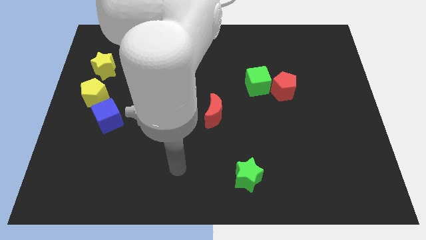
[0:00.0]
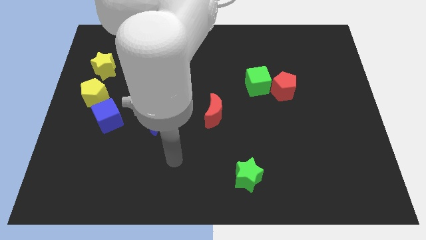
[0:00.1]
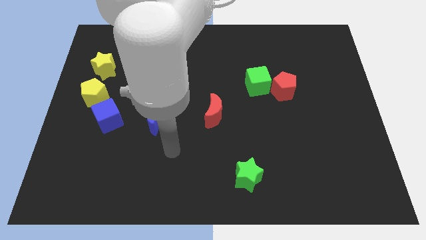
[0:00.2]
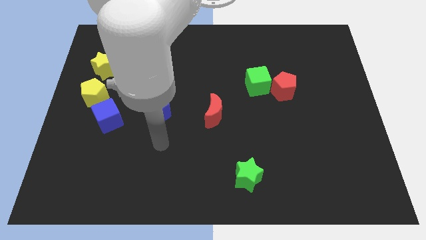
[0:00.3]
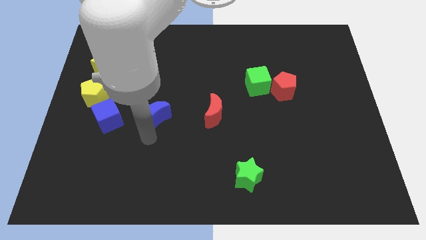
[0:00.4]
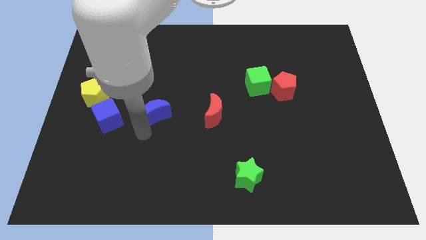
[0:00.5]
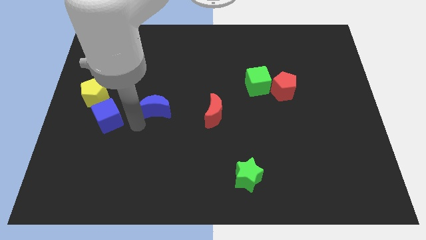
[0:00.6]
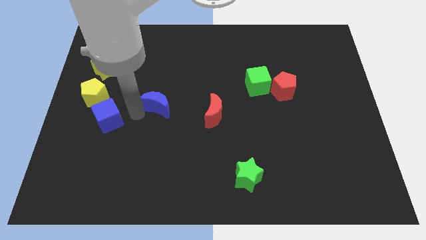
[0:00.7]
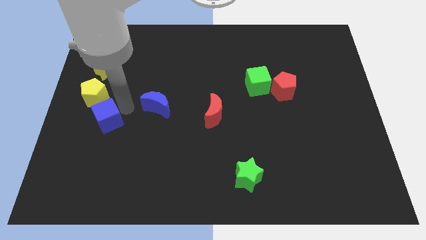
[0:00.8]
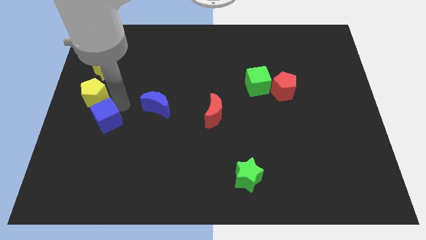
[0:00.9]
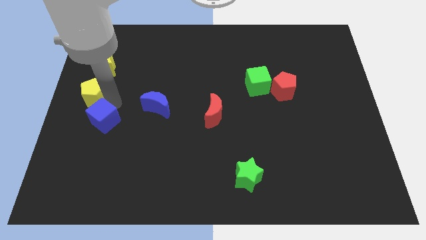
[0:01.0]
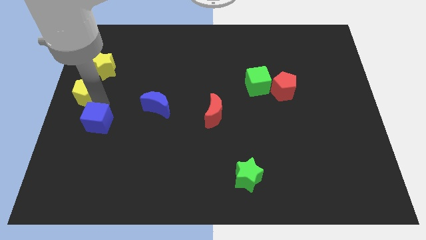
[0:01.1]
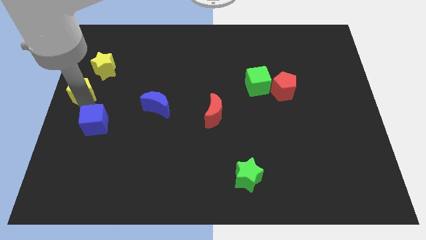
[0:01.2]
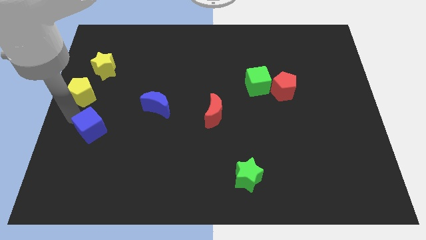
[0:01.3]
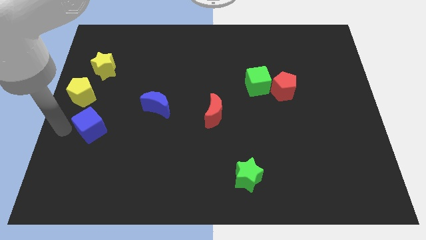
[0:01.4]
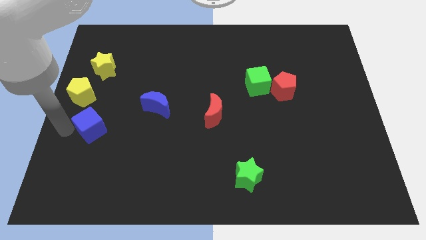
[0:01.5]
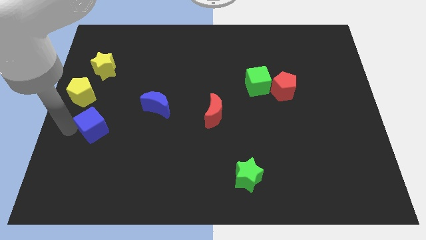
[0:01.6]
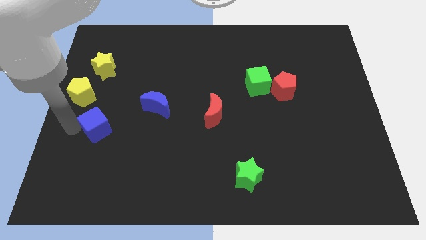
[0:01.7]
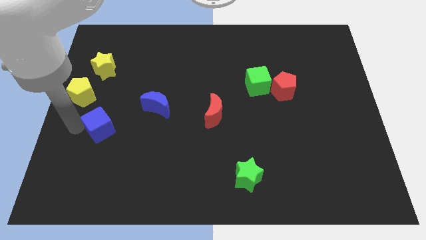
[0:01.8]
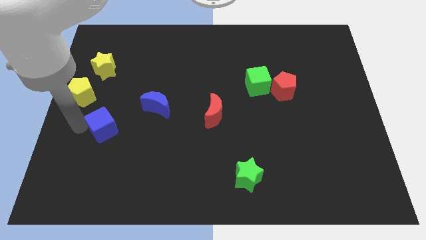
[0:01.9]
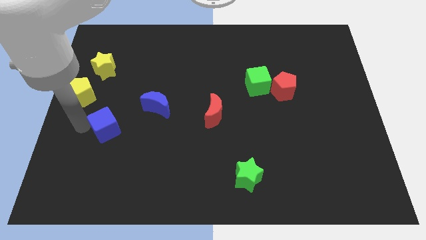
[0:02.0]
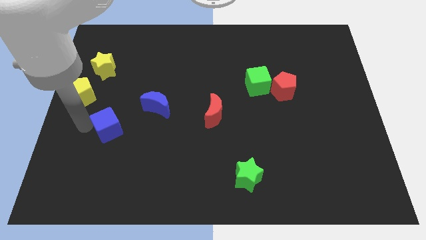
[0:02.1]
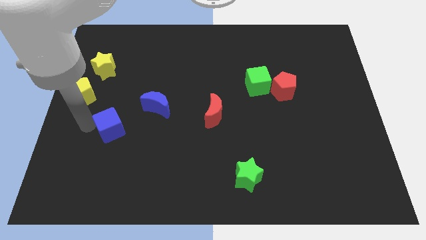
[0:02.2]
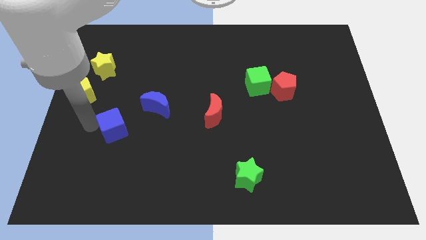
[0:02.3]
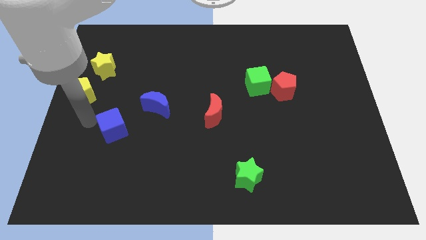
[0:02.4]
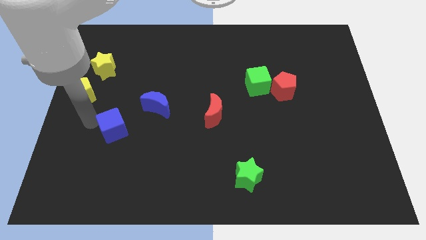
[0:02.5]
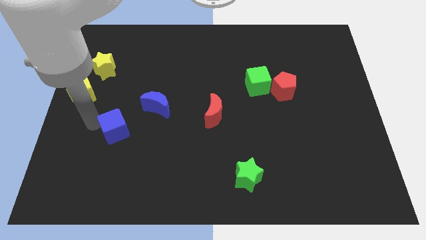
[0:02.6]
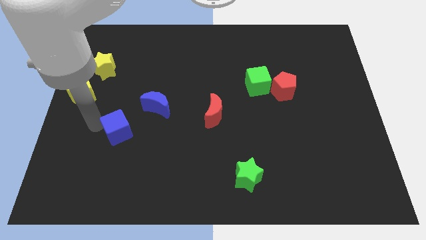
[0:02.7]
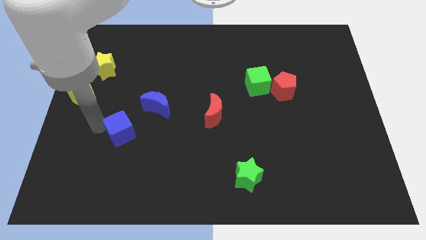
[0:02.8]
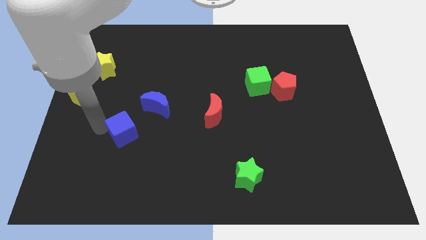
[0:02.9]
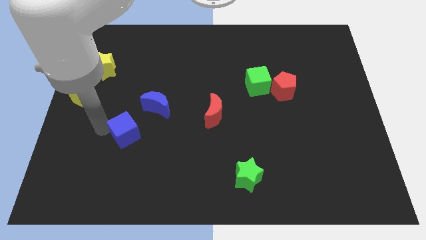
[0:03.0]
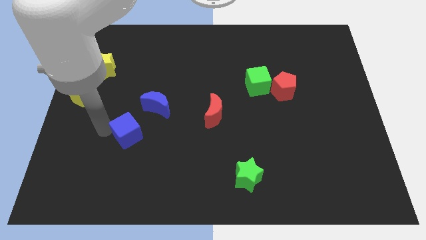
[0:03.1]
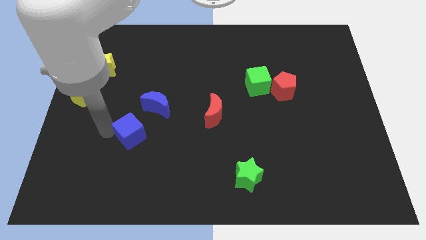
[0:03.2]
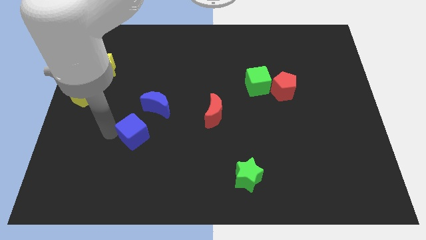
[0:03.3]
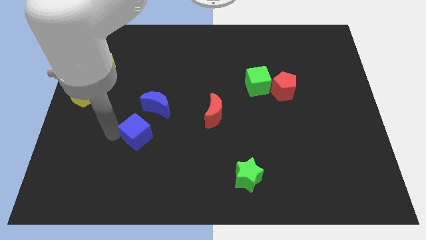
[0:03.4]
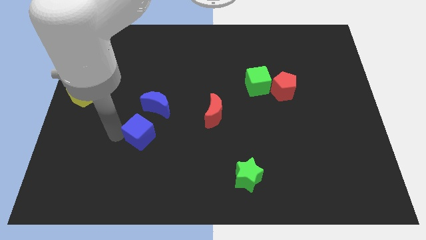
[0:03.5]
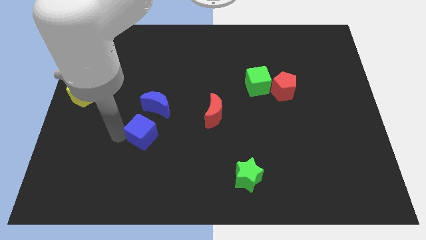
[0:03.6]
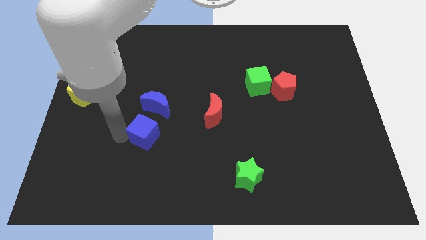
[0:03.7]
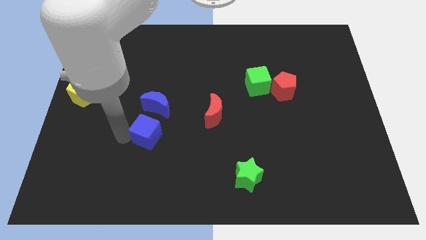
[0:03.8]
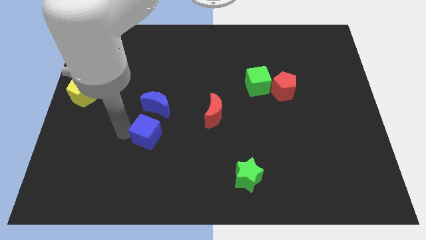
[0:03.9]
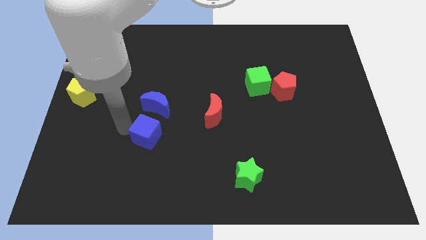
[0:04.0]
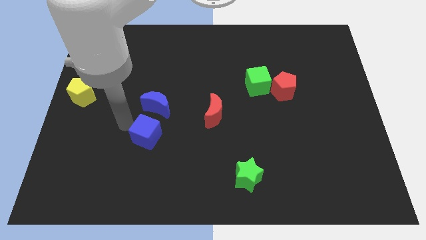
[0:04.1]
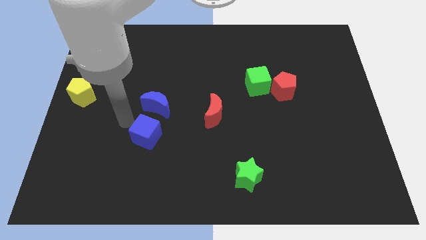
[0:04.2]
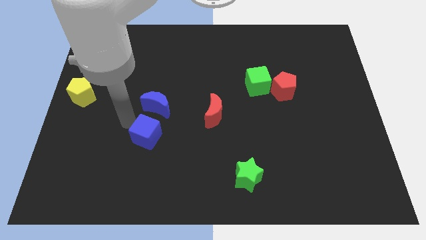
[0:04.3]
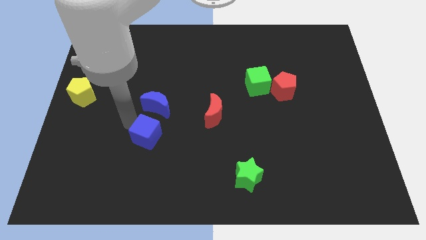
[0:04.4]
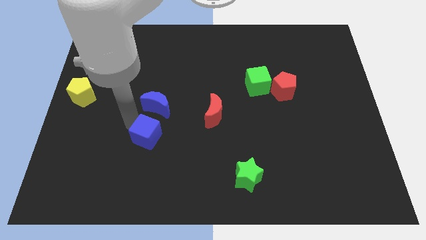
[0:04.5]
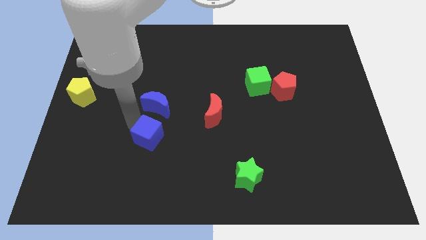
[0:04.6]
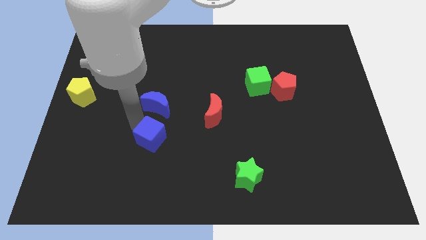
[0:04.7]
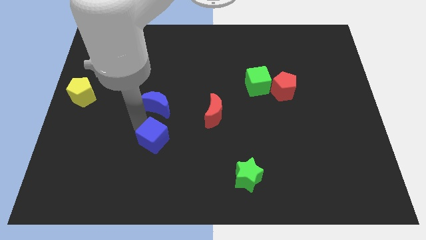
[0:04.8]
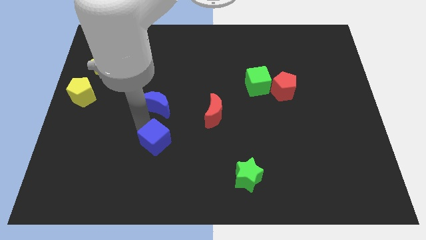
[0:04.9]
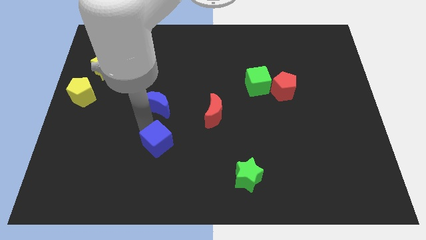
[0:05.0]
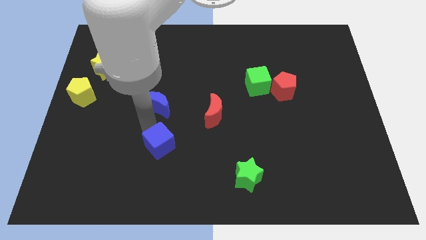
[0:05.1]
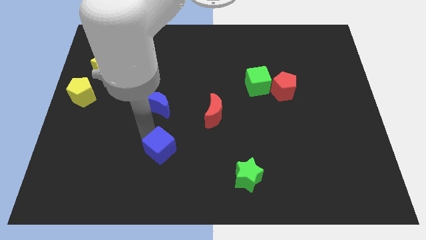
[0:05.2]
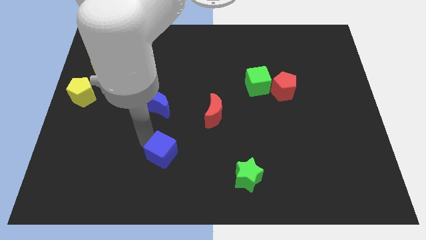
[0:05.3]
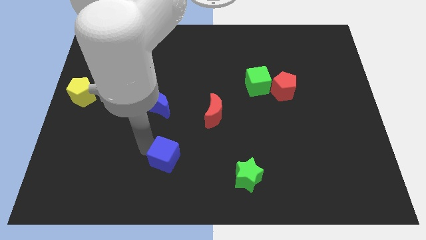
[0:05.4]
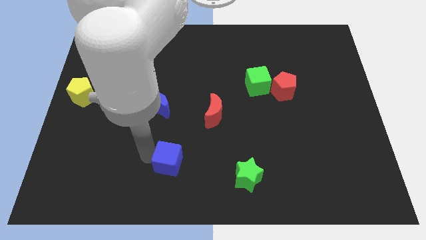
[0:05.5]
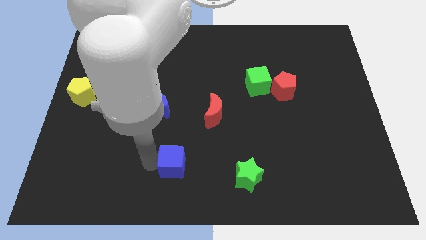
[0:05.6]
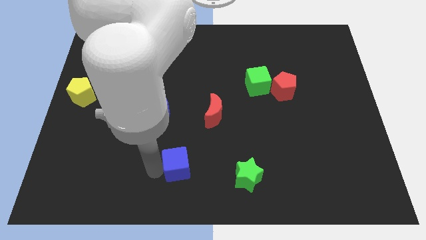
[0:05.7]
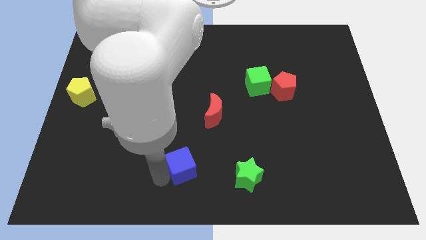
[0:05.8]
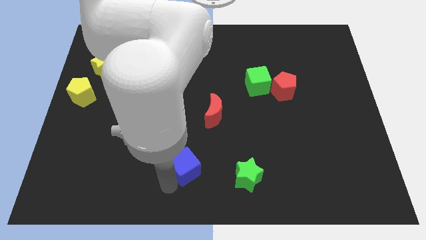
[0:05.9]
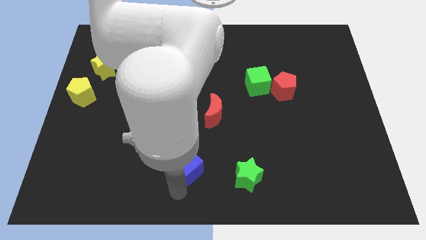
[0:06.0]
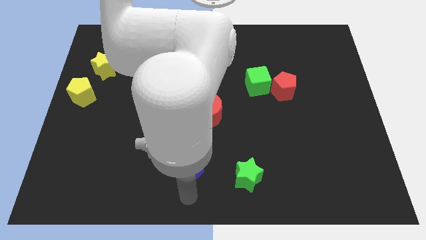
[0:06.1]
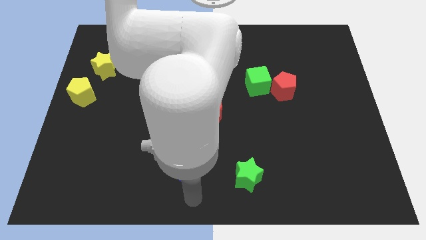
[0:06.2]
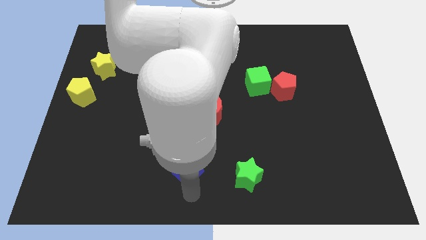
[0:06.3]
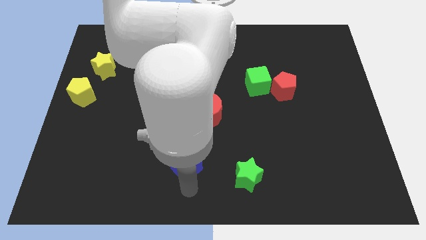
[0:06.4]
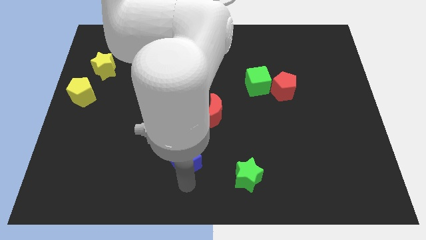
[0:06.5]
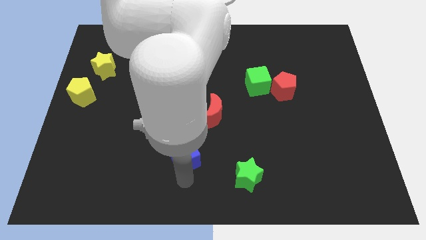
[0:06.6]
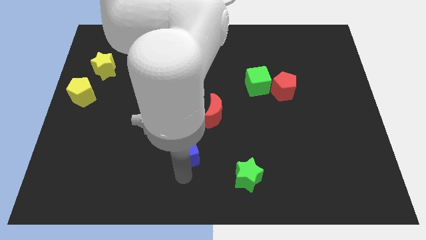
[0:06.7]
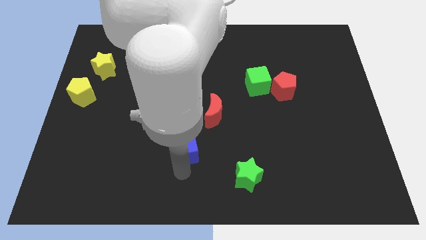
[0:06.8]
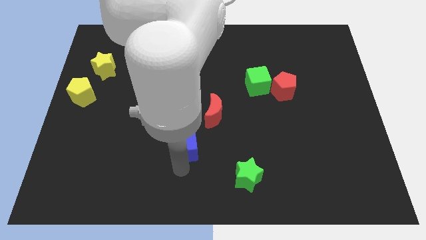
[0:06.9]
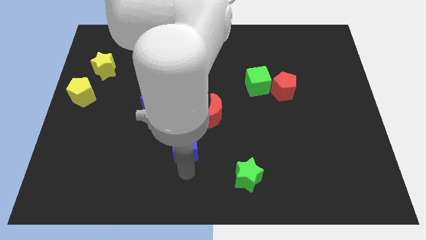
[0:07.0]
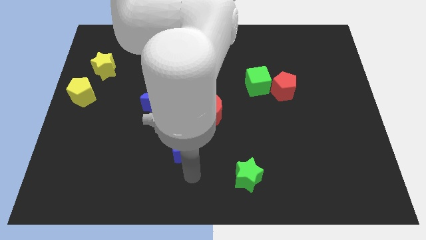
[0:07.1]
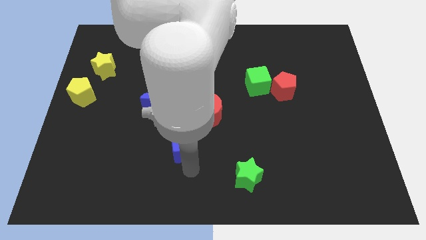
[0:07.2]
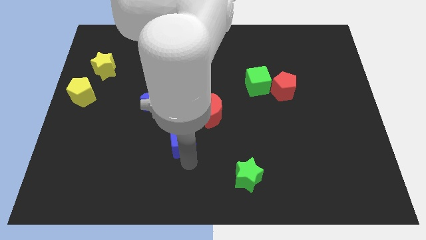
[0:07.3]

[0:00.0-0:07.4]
slide the blue cube diagonally down and to the right of the blue moon

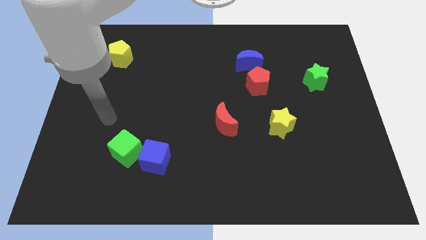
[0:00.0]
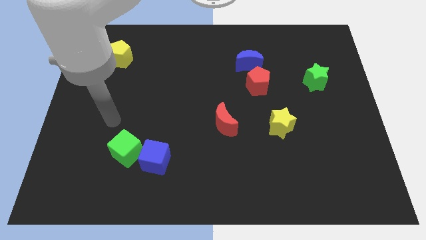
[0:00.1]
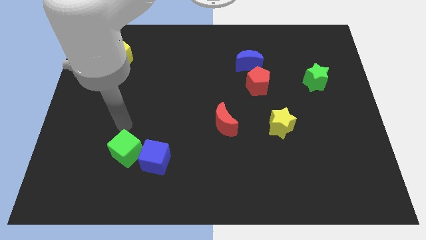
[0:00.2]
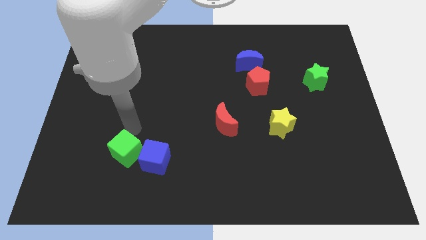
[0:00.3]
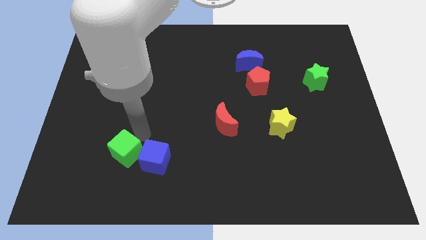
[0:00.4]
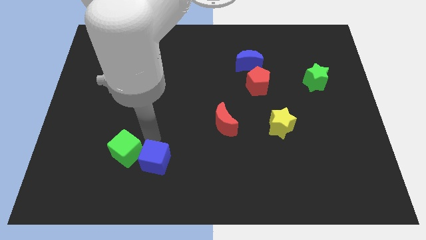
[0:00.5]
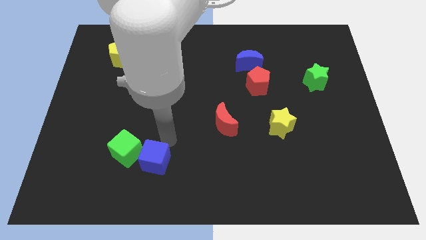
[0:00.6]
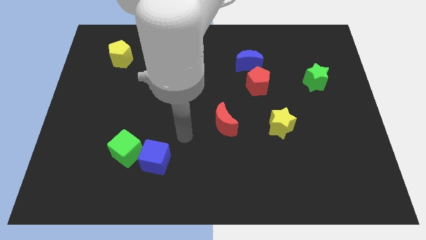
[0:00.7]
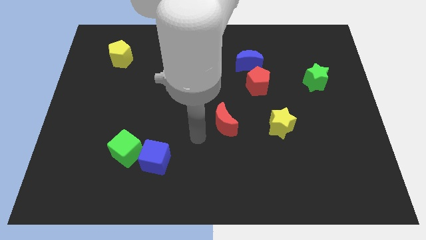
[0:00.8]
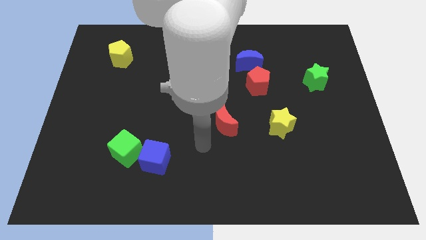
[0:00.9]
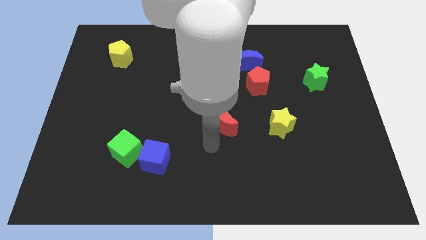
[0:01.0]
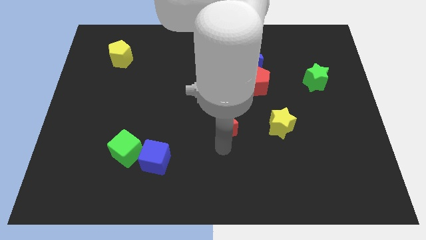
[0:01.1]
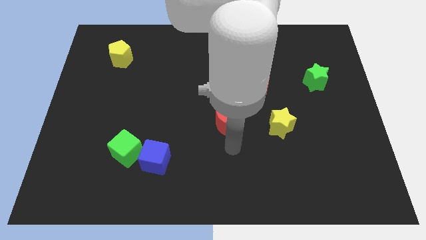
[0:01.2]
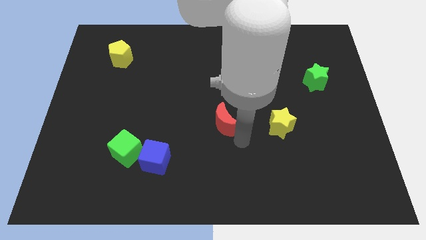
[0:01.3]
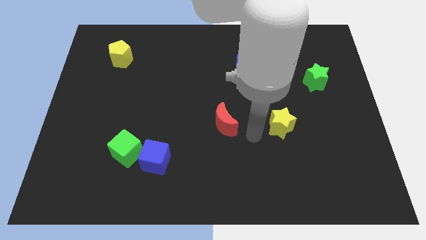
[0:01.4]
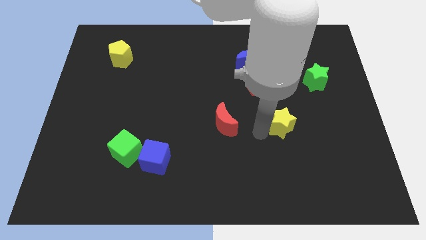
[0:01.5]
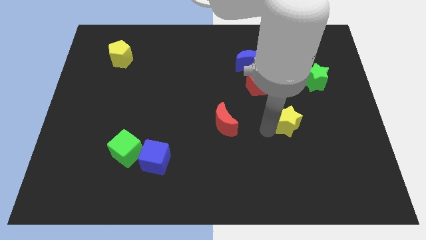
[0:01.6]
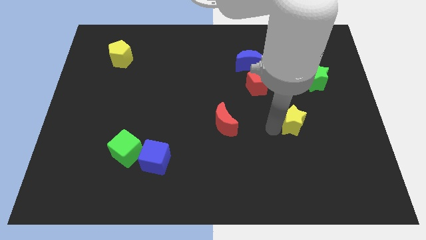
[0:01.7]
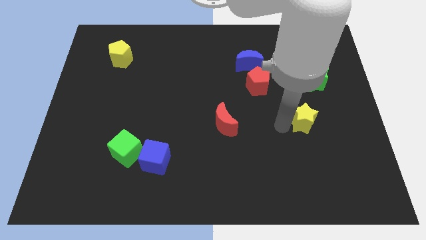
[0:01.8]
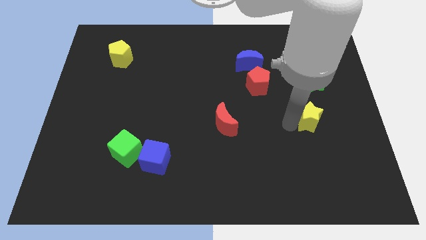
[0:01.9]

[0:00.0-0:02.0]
push the yellow star to the bottom of the green star
